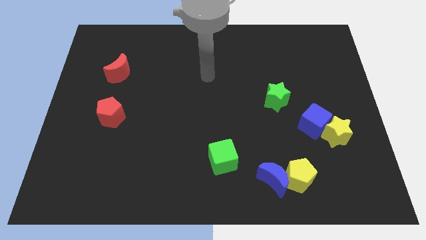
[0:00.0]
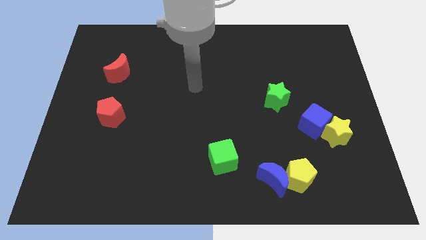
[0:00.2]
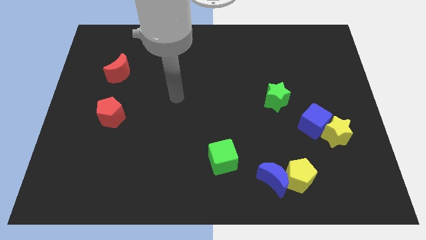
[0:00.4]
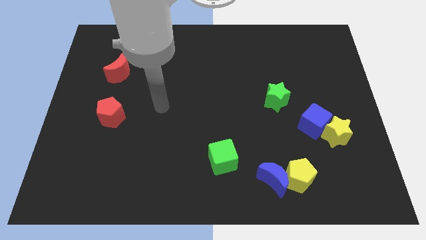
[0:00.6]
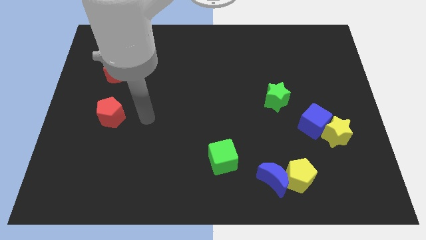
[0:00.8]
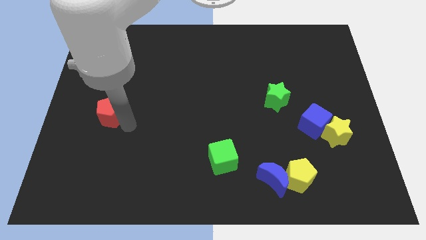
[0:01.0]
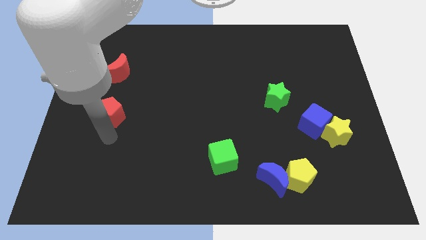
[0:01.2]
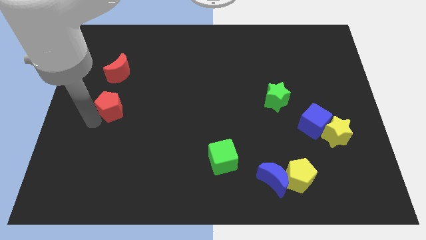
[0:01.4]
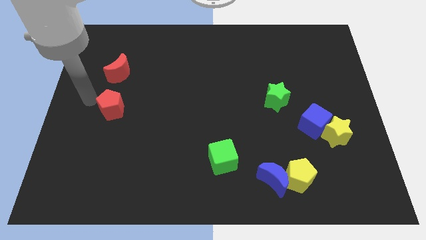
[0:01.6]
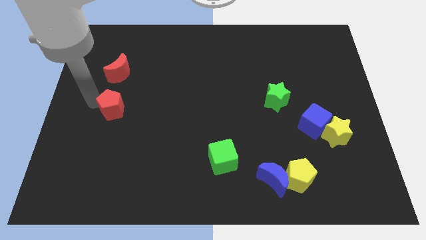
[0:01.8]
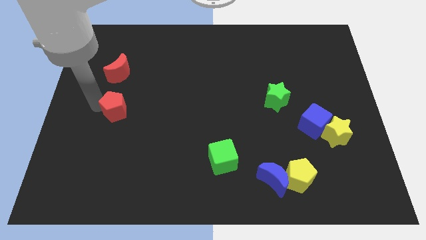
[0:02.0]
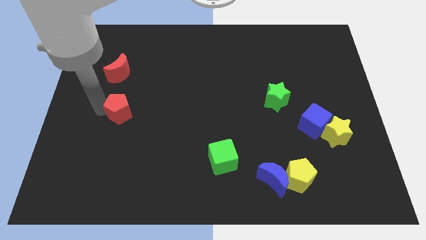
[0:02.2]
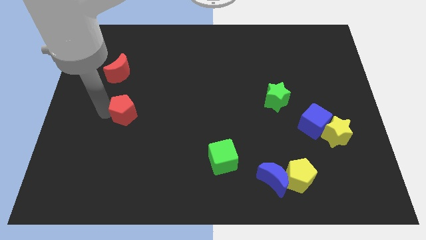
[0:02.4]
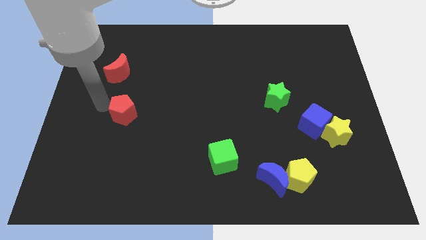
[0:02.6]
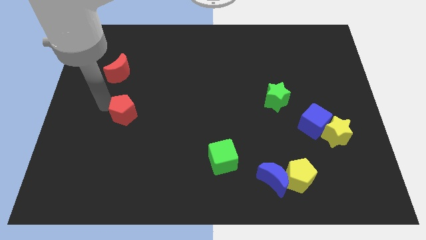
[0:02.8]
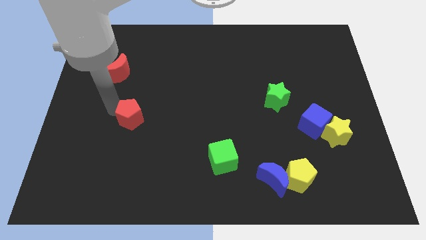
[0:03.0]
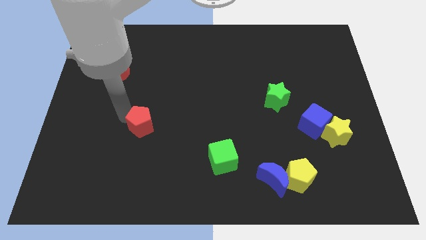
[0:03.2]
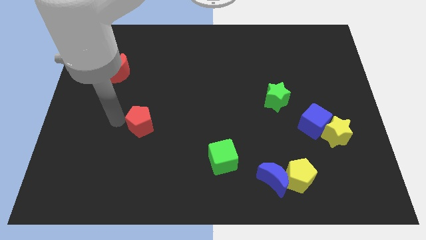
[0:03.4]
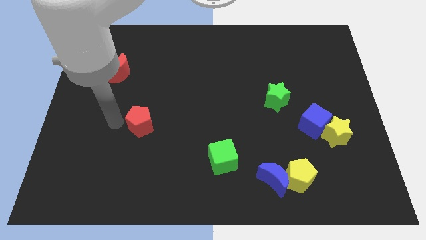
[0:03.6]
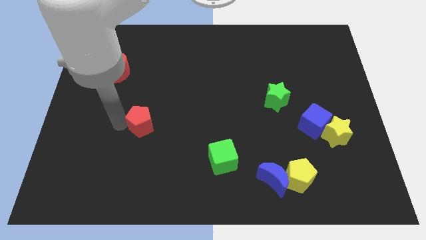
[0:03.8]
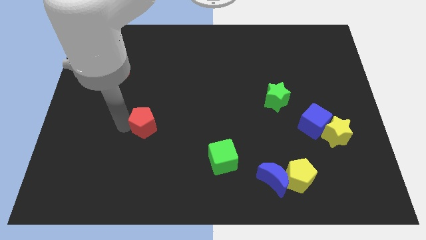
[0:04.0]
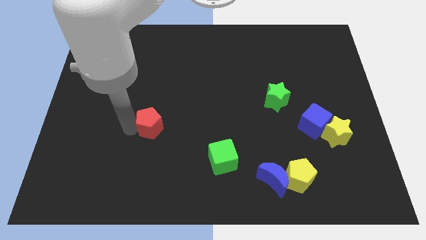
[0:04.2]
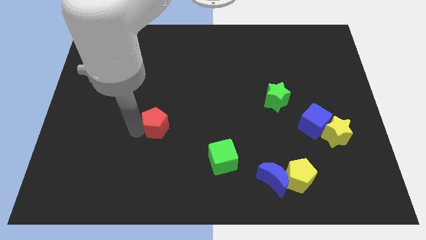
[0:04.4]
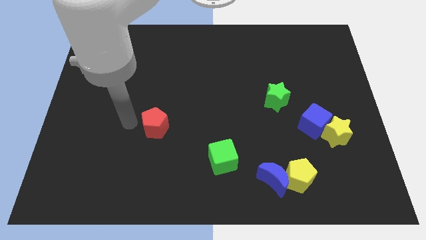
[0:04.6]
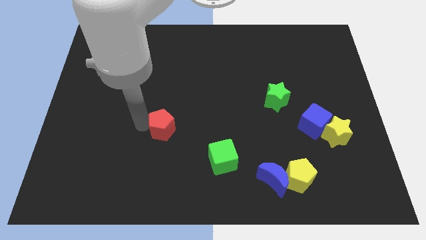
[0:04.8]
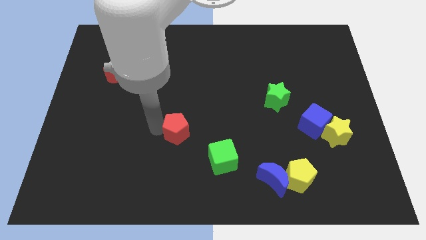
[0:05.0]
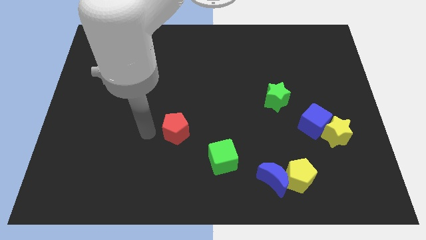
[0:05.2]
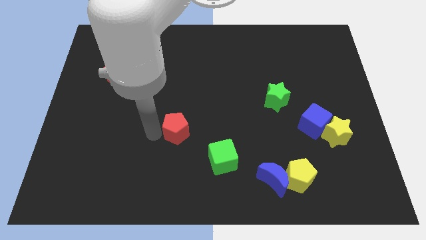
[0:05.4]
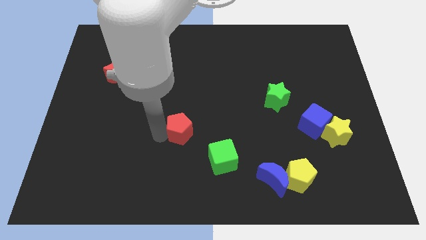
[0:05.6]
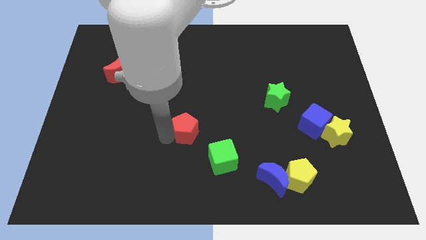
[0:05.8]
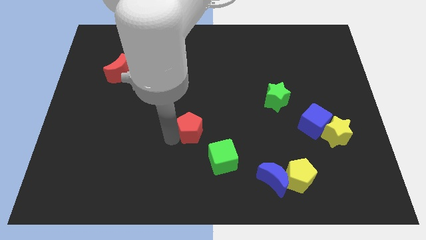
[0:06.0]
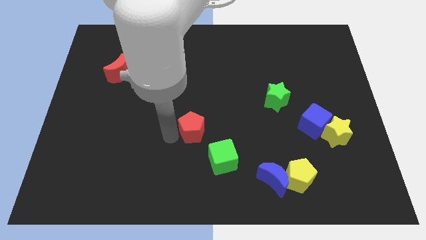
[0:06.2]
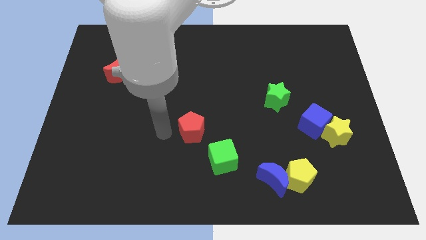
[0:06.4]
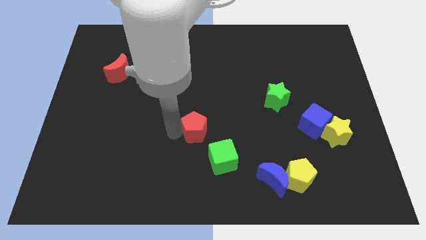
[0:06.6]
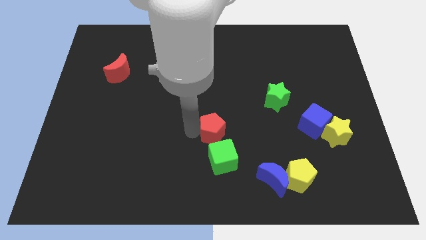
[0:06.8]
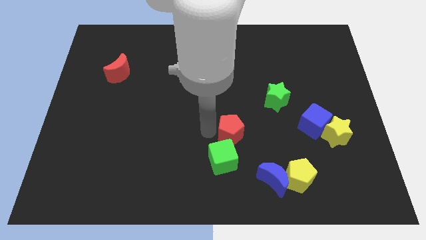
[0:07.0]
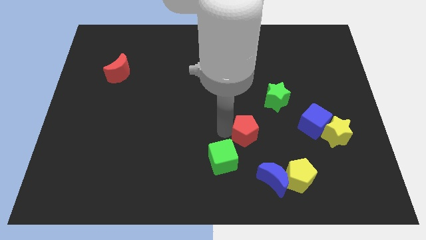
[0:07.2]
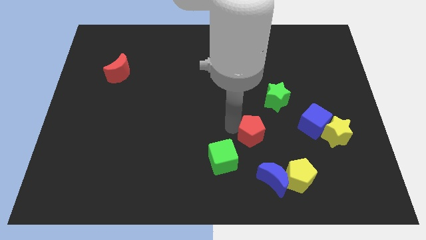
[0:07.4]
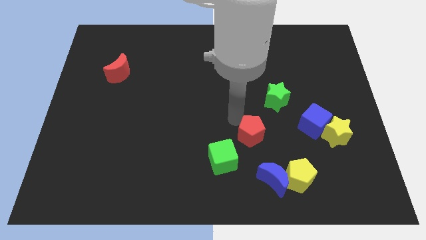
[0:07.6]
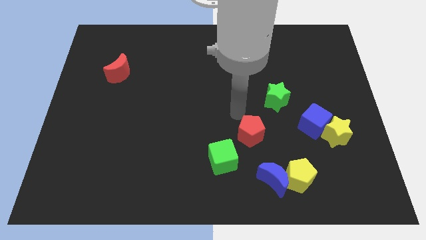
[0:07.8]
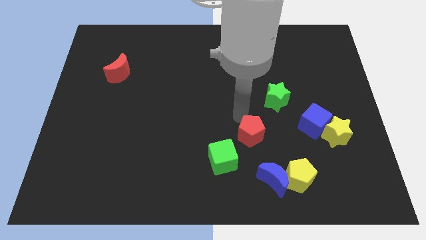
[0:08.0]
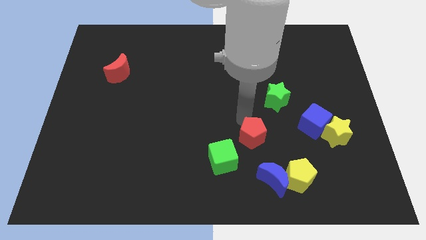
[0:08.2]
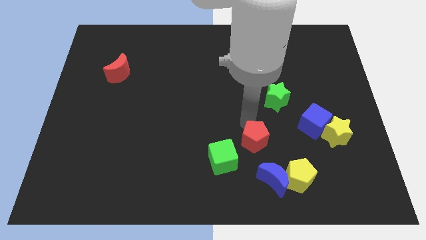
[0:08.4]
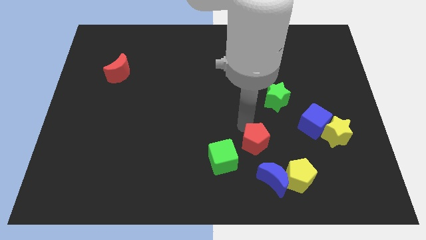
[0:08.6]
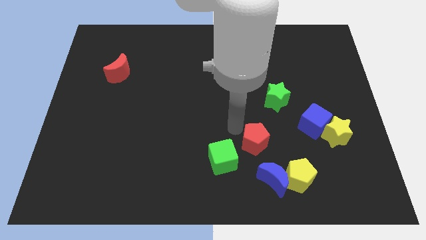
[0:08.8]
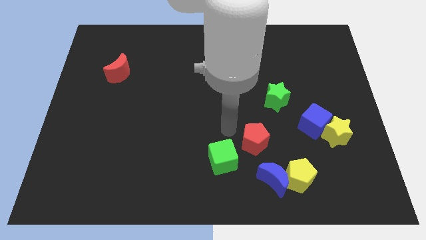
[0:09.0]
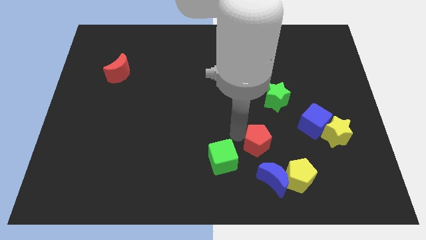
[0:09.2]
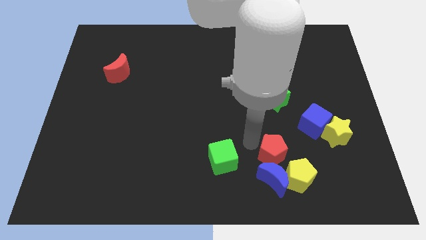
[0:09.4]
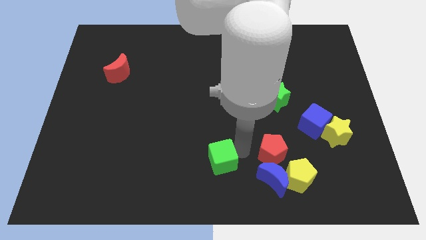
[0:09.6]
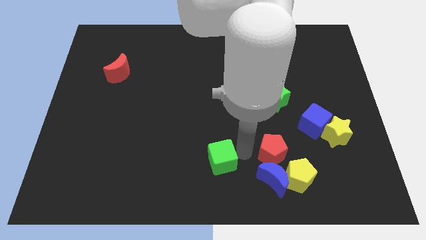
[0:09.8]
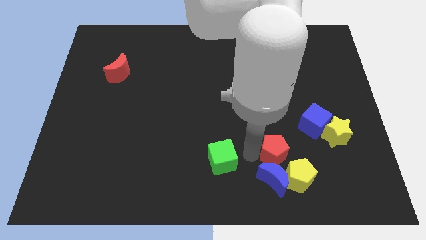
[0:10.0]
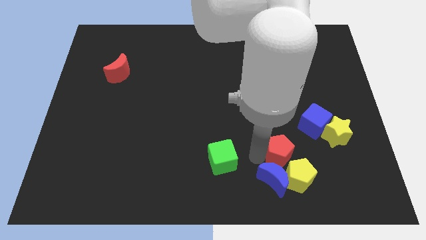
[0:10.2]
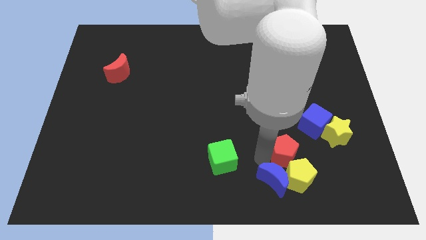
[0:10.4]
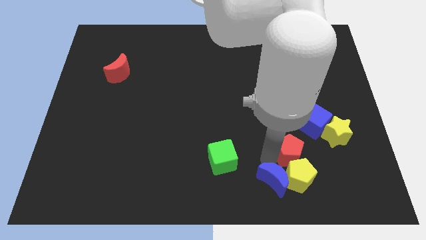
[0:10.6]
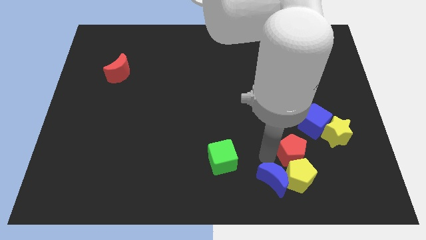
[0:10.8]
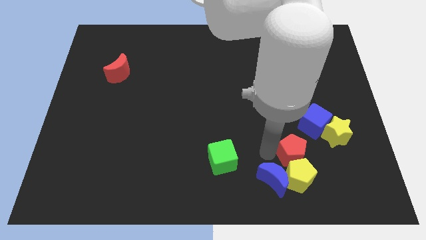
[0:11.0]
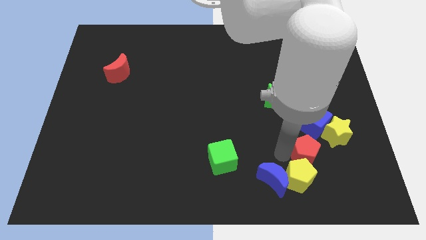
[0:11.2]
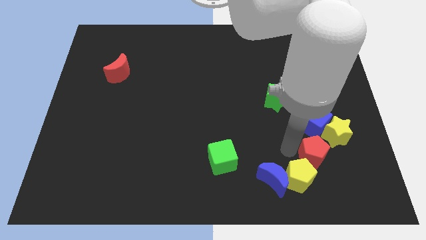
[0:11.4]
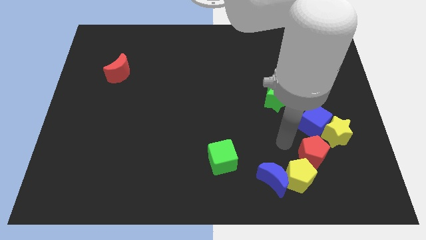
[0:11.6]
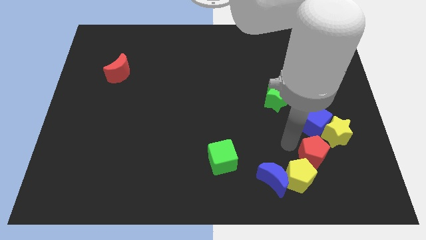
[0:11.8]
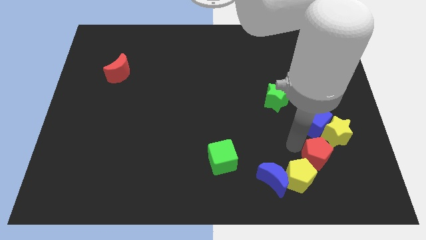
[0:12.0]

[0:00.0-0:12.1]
put the red pentagon to the right side of the yellow pentagon
